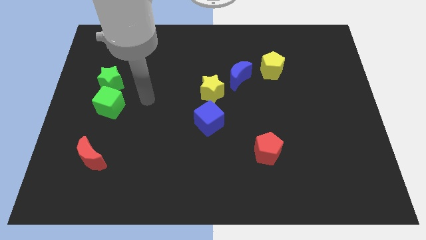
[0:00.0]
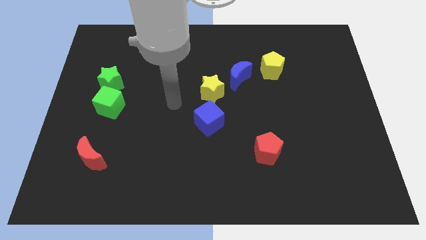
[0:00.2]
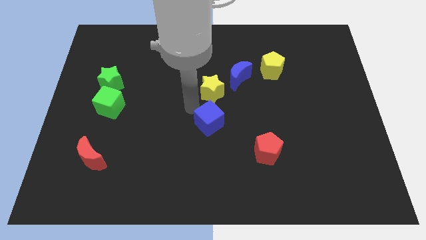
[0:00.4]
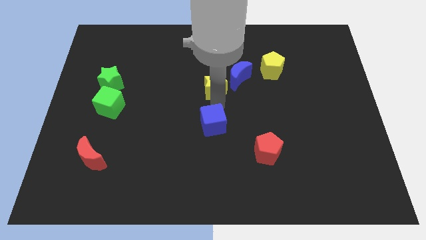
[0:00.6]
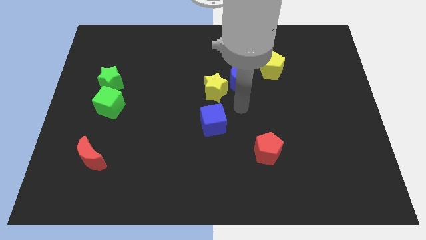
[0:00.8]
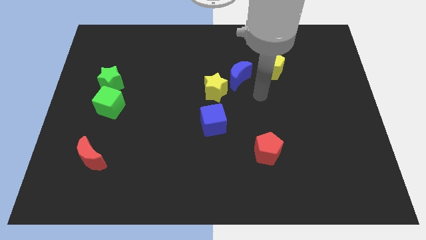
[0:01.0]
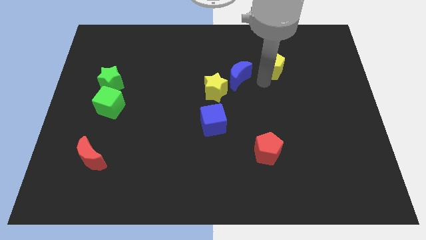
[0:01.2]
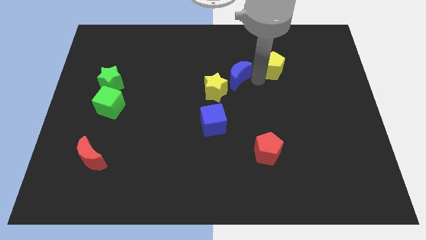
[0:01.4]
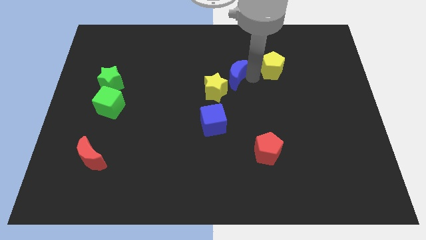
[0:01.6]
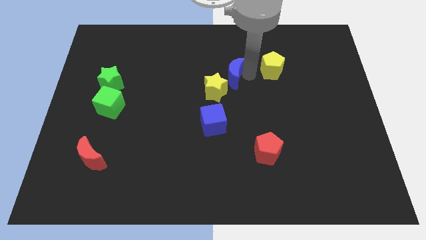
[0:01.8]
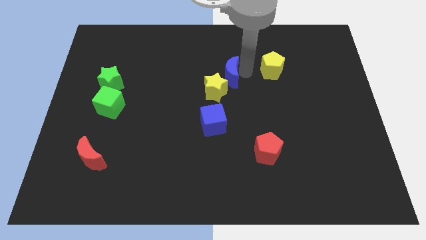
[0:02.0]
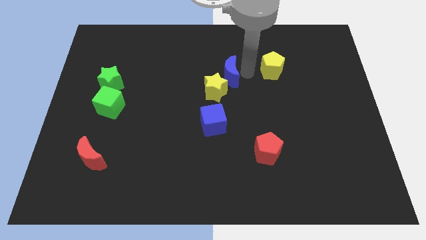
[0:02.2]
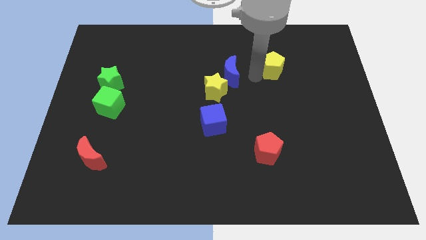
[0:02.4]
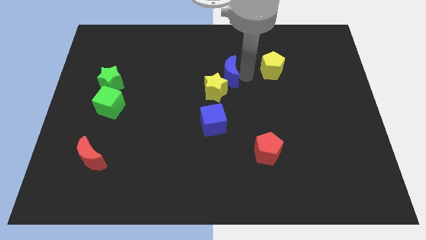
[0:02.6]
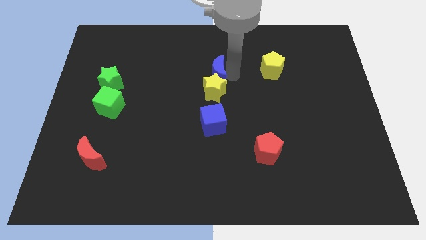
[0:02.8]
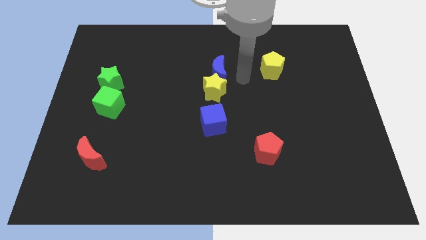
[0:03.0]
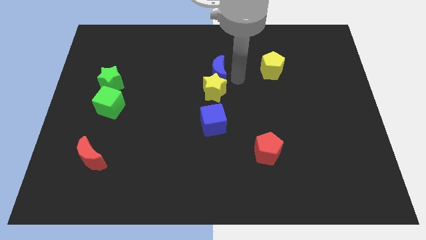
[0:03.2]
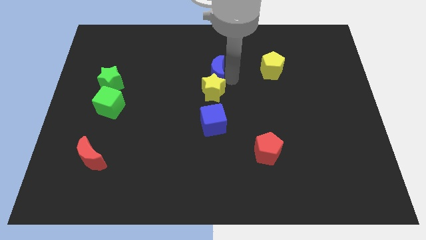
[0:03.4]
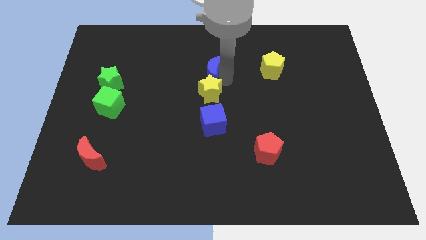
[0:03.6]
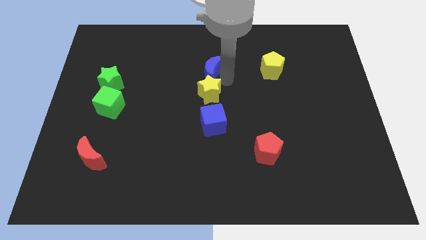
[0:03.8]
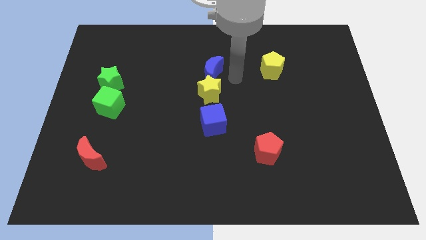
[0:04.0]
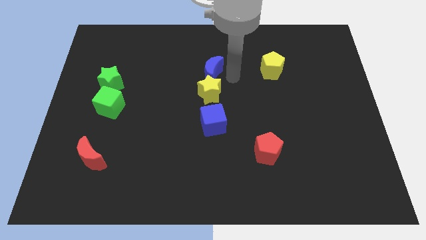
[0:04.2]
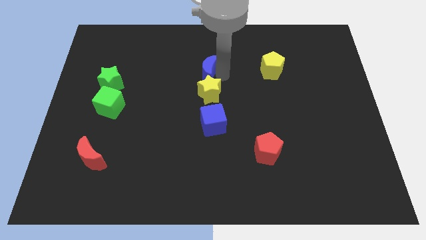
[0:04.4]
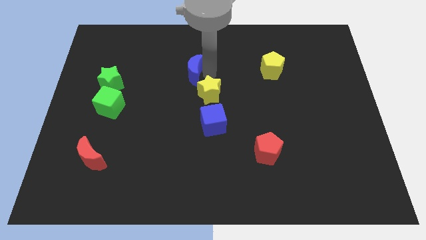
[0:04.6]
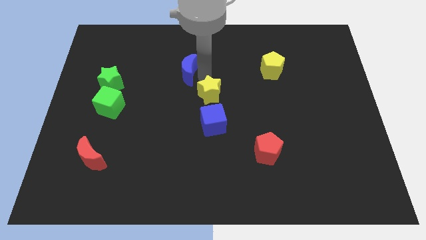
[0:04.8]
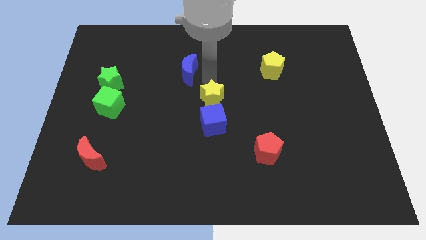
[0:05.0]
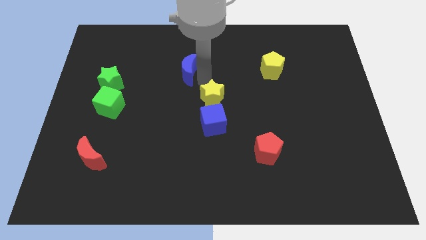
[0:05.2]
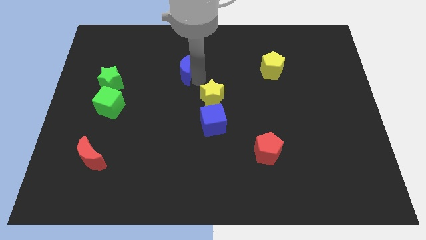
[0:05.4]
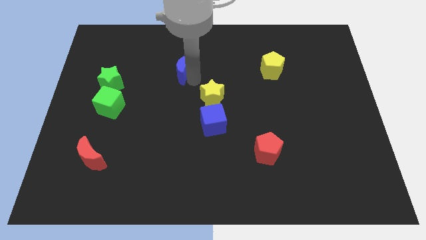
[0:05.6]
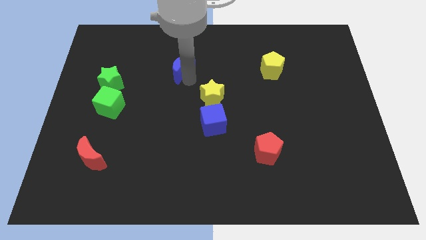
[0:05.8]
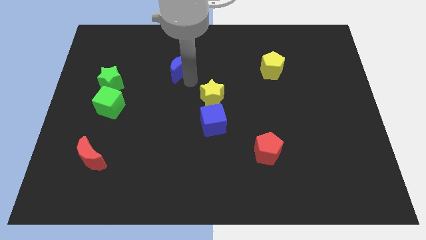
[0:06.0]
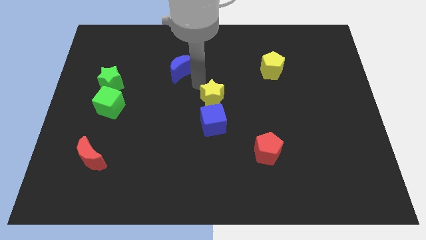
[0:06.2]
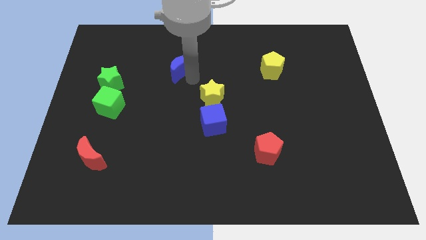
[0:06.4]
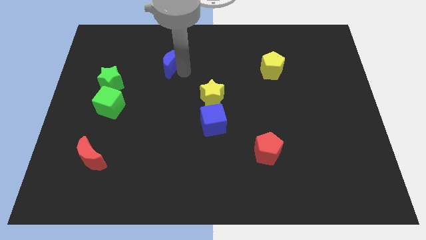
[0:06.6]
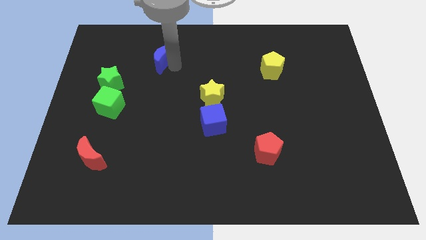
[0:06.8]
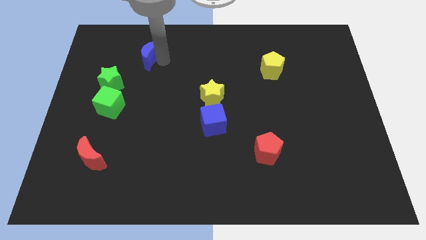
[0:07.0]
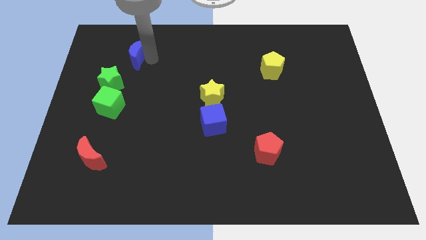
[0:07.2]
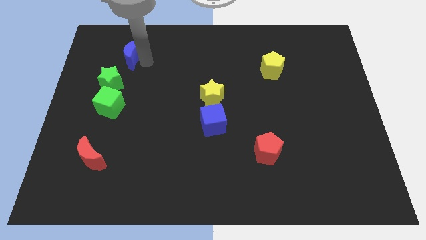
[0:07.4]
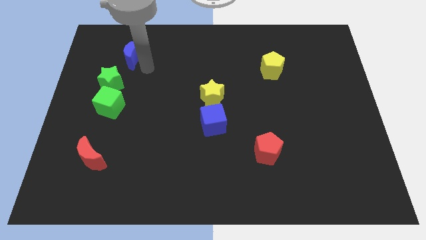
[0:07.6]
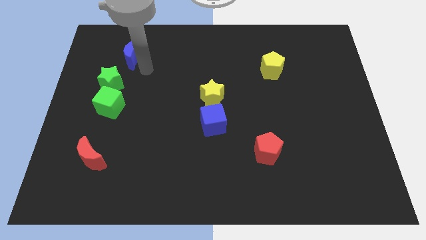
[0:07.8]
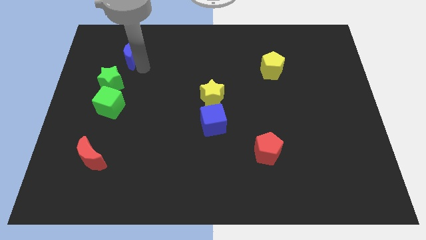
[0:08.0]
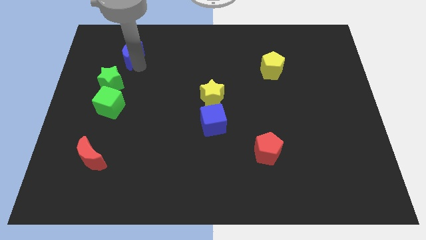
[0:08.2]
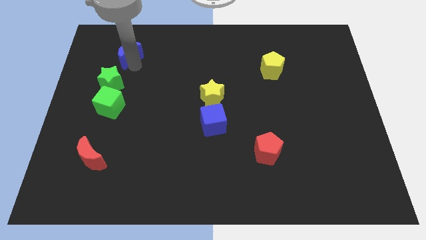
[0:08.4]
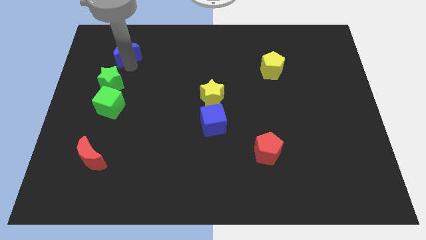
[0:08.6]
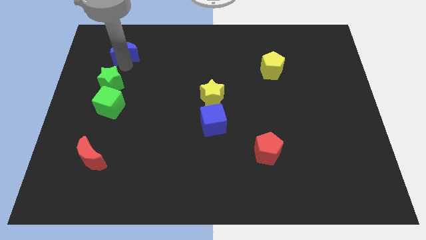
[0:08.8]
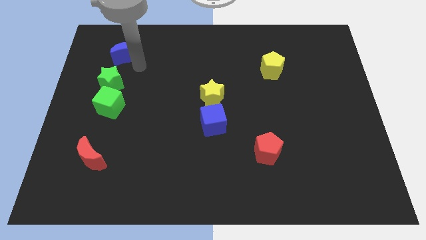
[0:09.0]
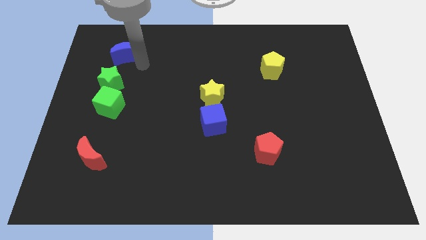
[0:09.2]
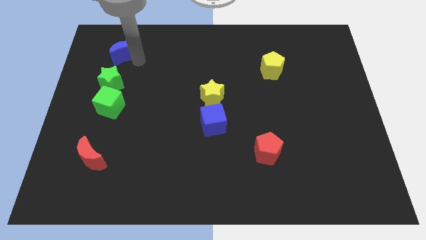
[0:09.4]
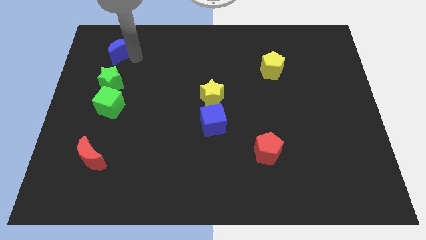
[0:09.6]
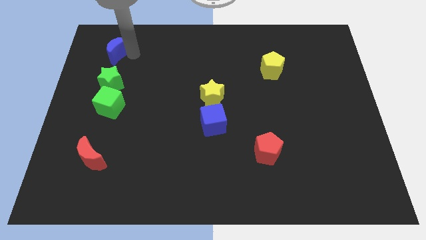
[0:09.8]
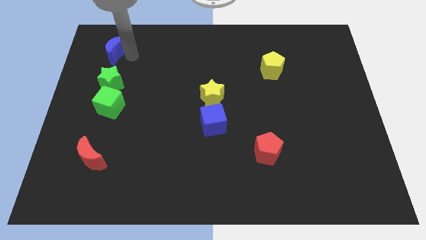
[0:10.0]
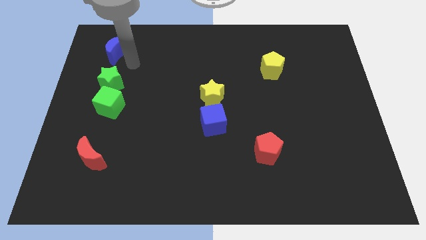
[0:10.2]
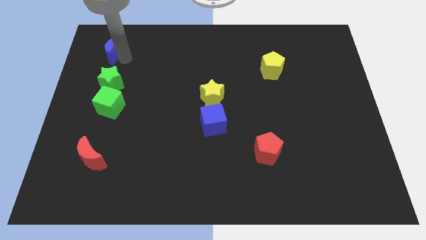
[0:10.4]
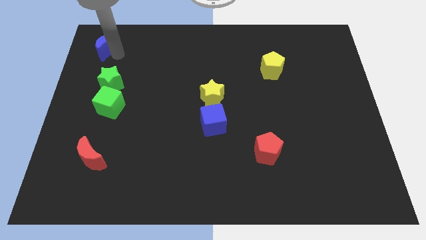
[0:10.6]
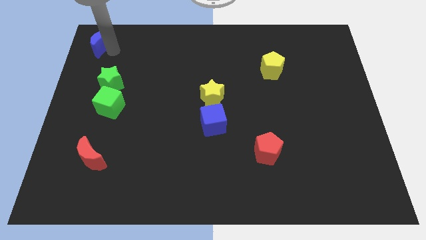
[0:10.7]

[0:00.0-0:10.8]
push the blue moon to the top left

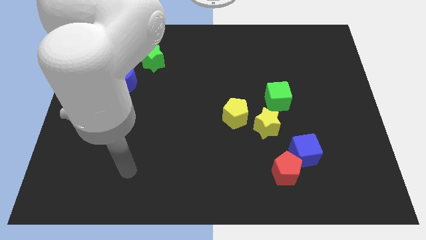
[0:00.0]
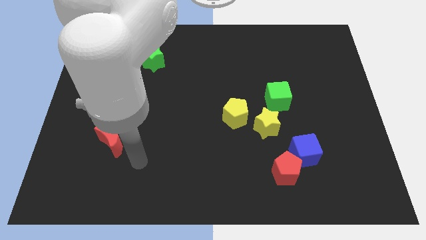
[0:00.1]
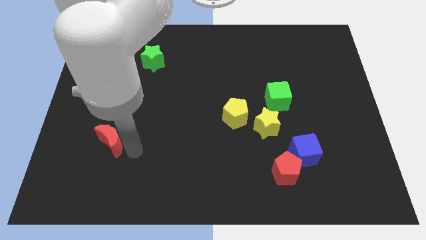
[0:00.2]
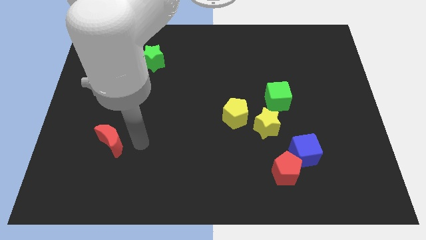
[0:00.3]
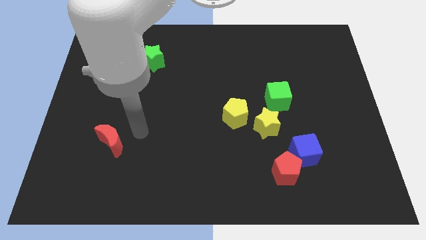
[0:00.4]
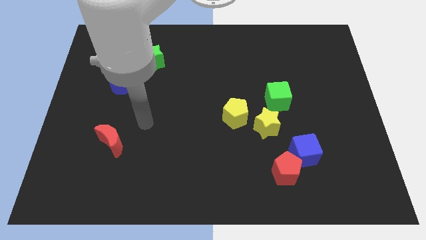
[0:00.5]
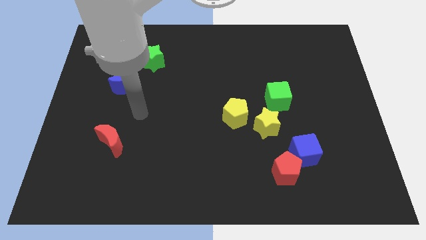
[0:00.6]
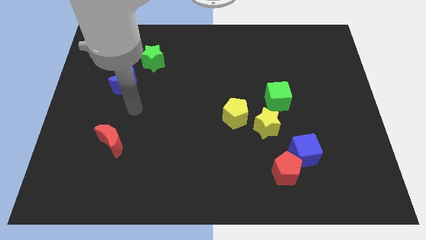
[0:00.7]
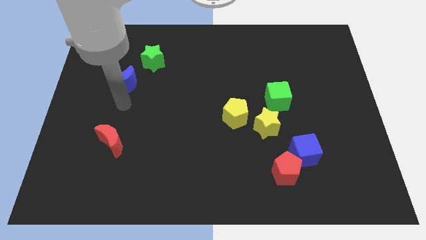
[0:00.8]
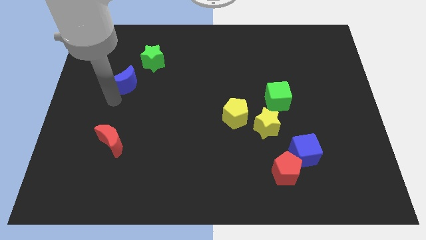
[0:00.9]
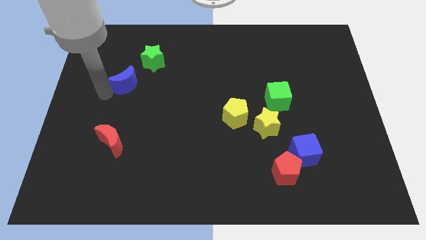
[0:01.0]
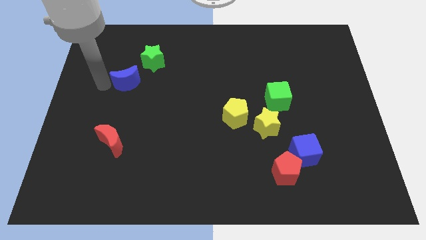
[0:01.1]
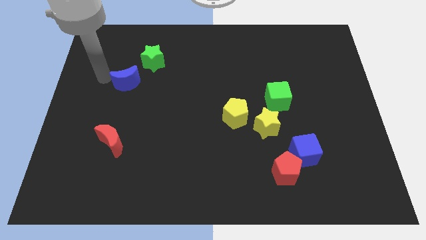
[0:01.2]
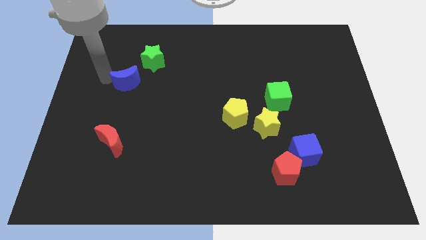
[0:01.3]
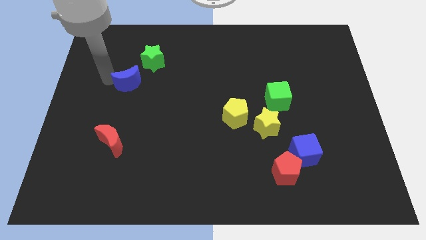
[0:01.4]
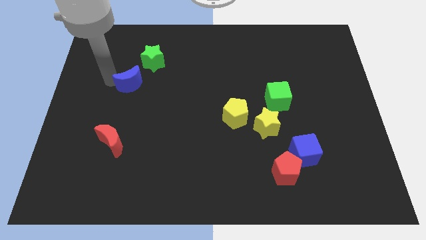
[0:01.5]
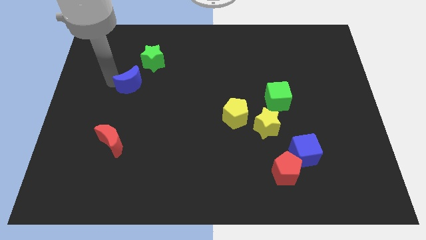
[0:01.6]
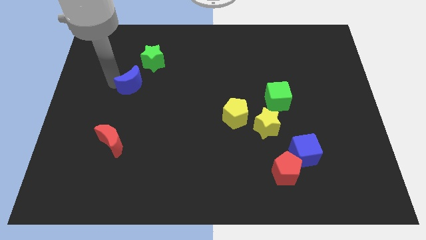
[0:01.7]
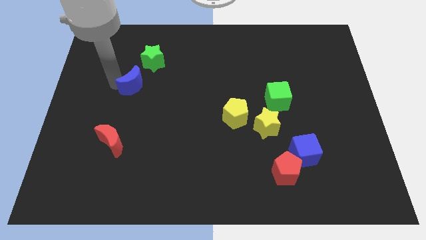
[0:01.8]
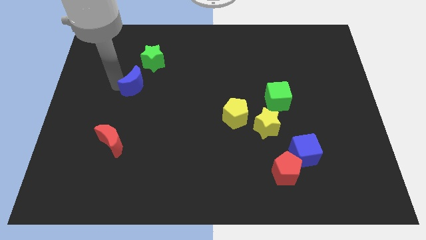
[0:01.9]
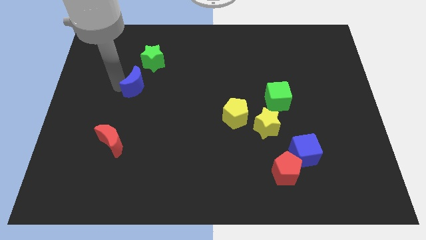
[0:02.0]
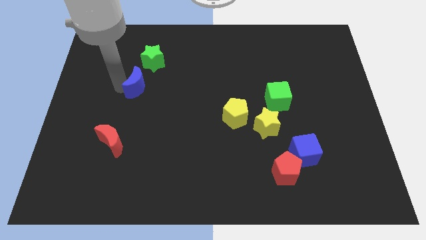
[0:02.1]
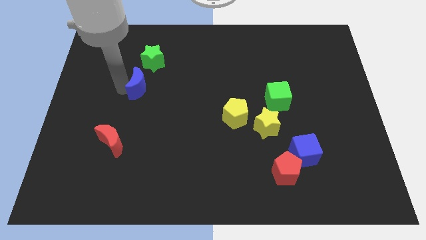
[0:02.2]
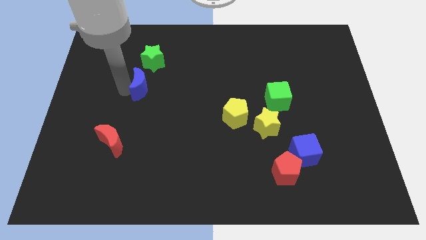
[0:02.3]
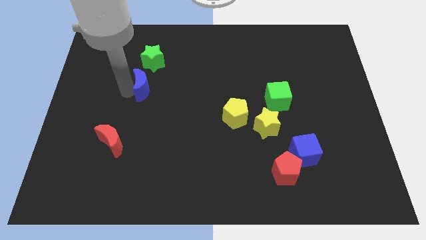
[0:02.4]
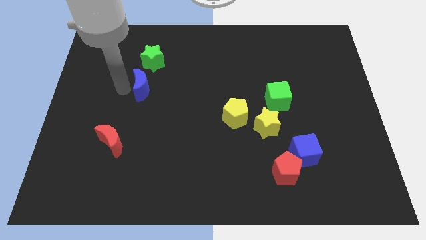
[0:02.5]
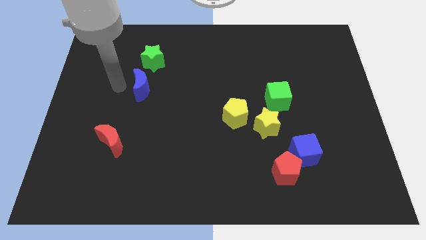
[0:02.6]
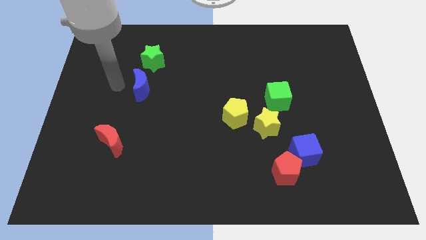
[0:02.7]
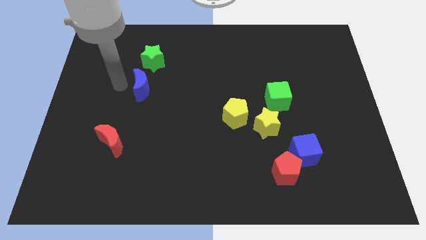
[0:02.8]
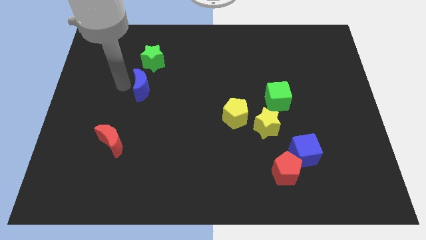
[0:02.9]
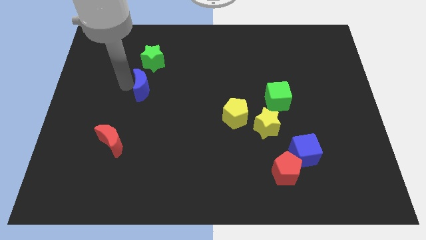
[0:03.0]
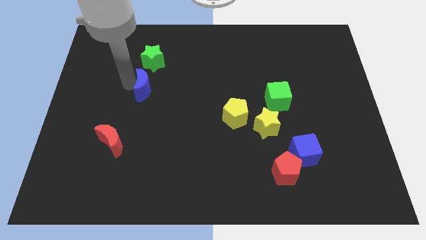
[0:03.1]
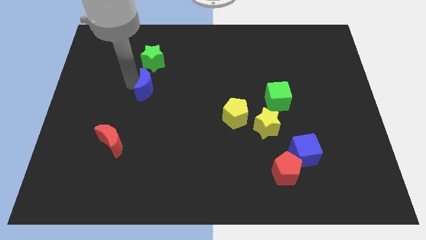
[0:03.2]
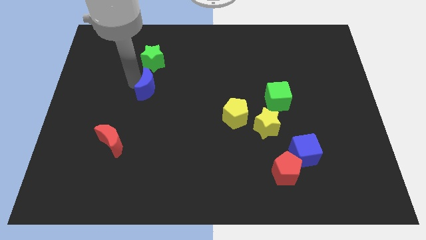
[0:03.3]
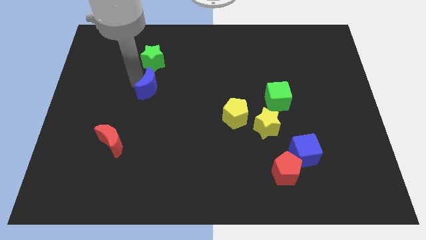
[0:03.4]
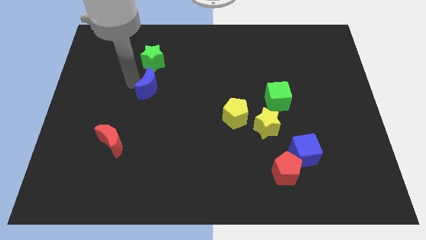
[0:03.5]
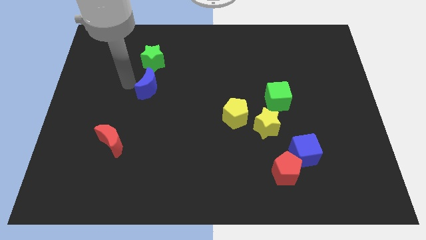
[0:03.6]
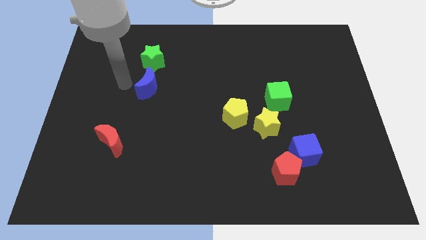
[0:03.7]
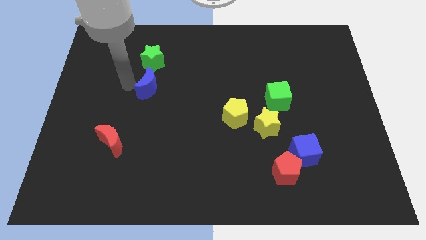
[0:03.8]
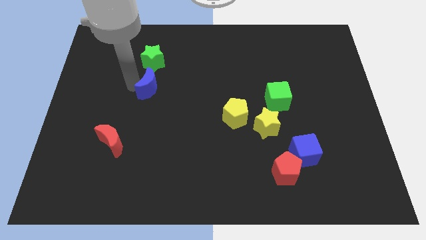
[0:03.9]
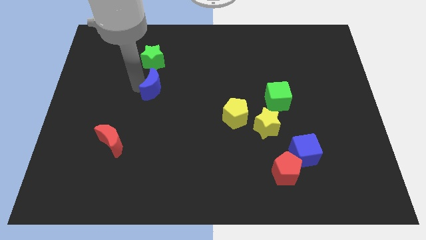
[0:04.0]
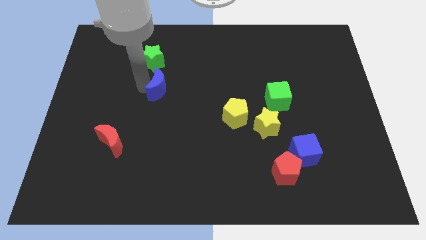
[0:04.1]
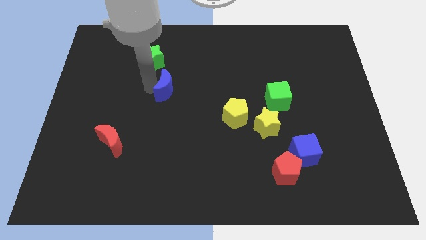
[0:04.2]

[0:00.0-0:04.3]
put the blue moon to the middle
